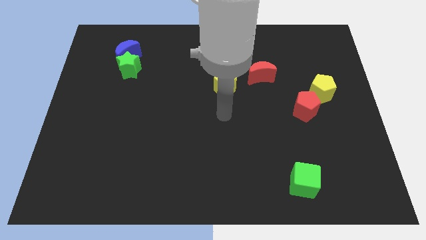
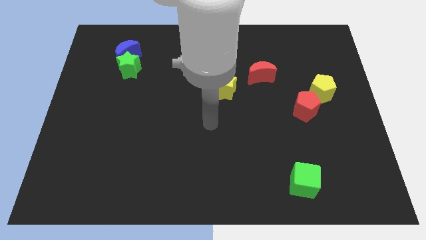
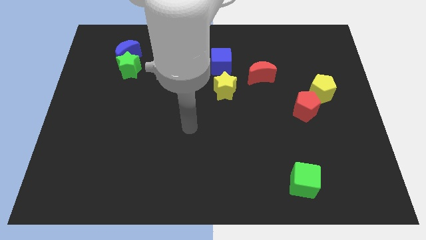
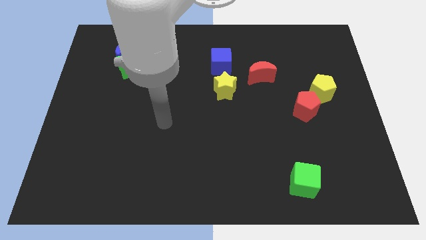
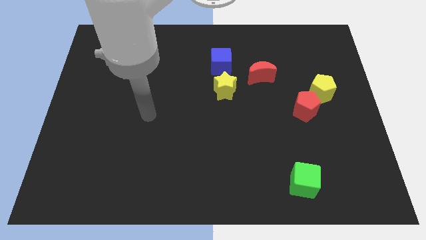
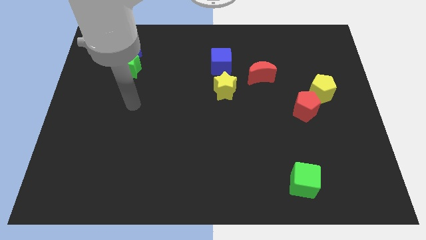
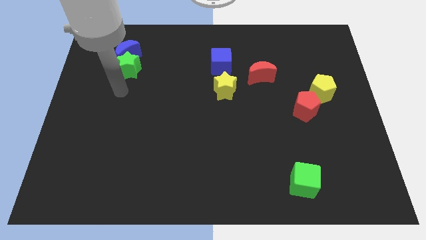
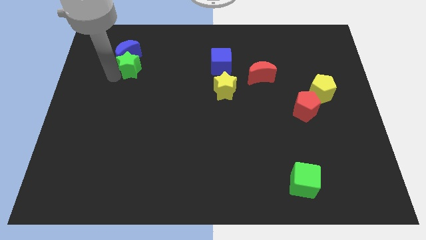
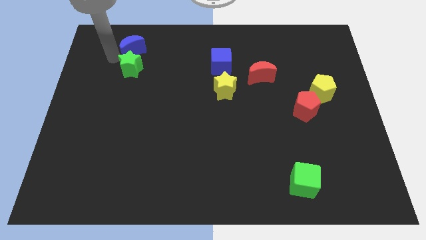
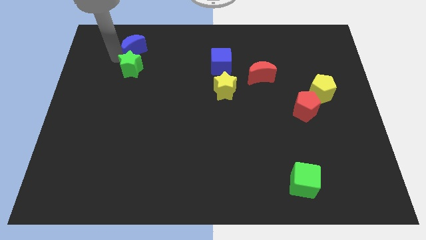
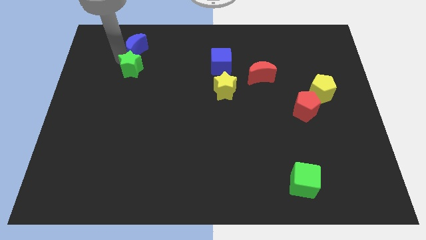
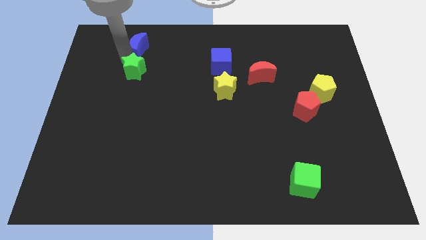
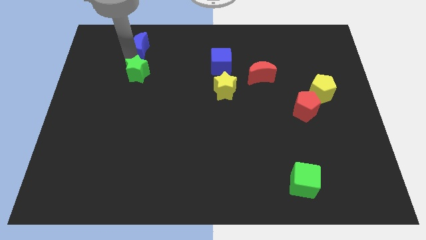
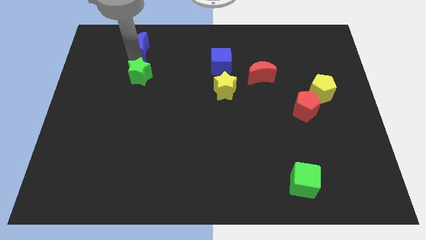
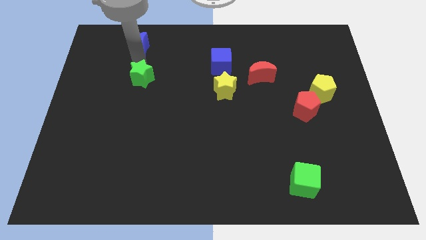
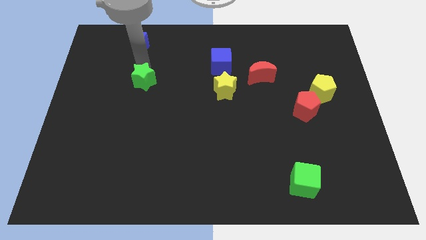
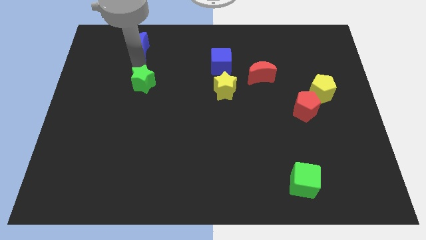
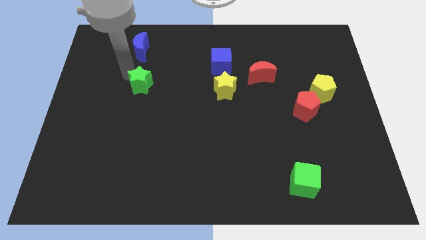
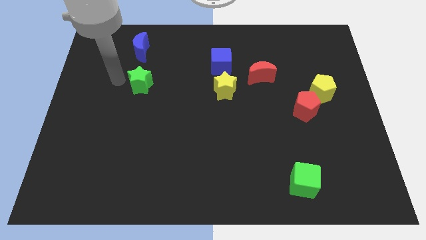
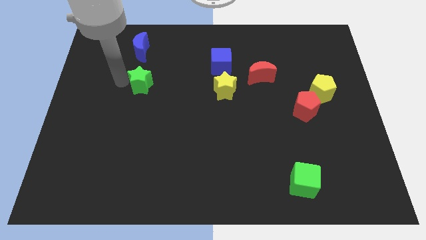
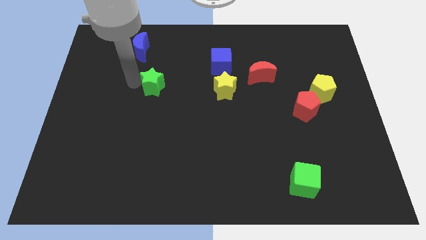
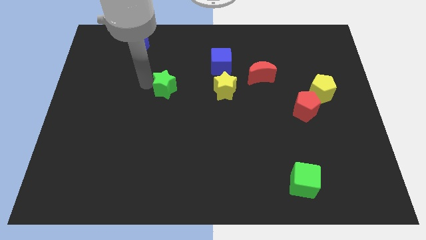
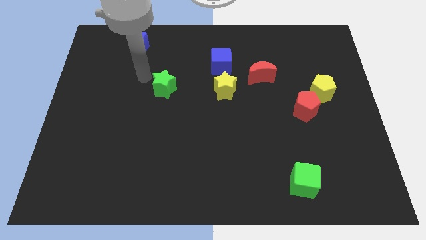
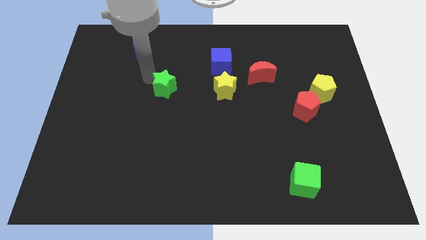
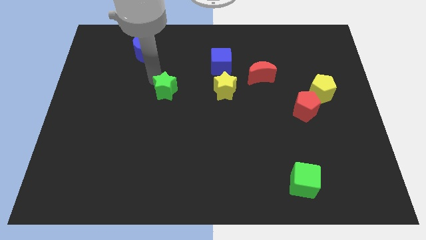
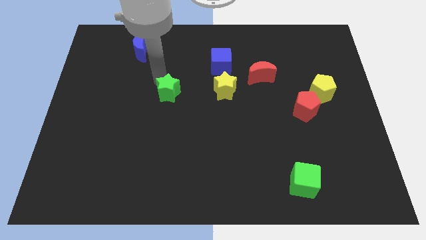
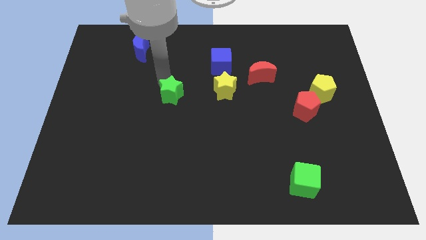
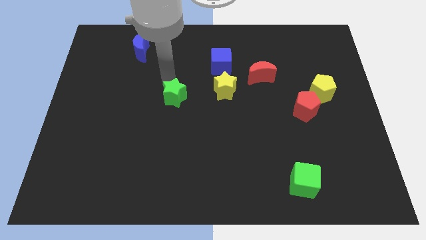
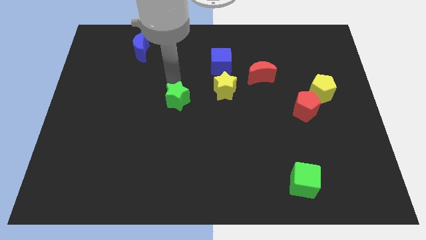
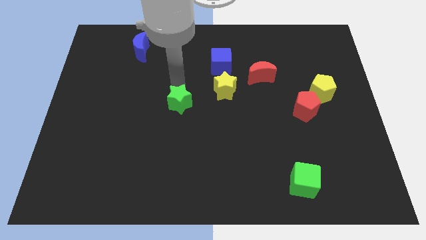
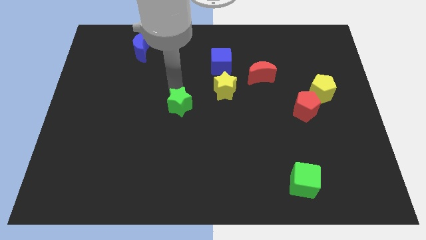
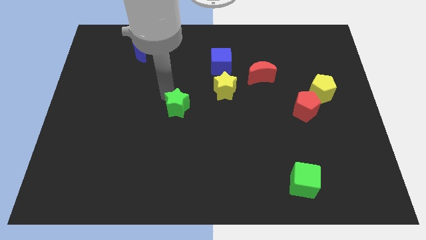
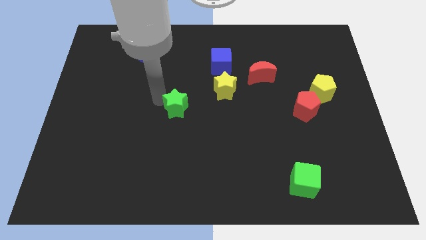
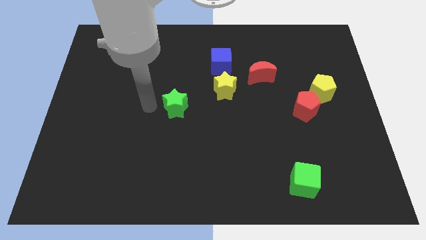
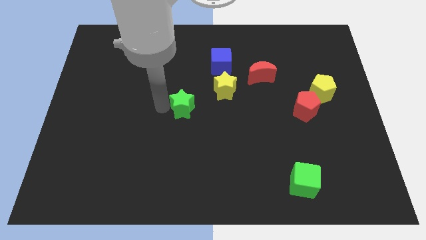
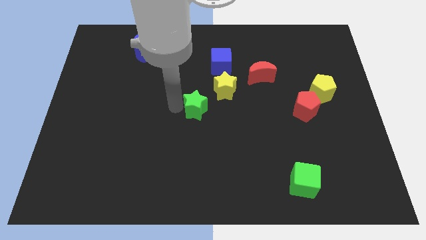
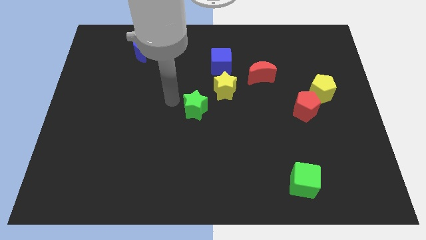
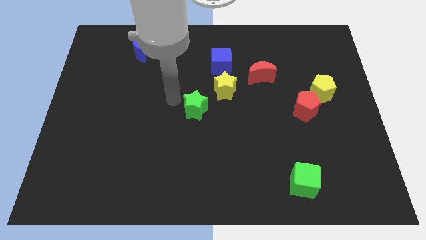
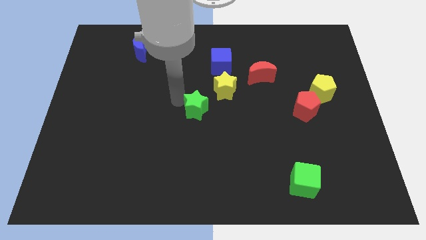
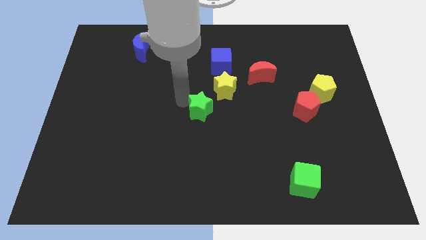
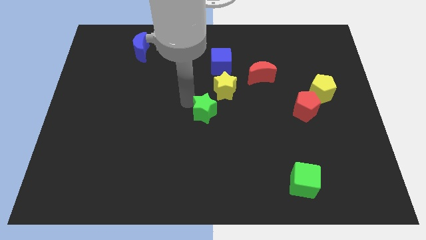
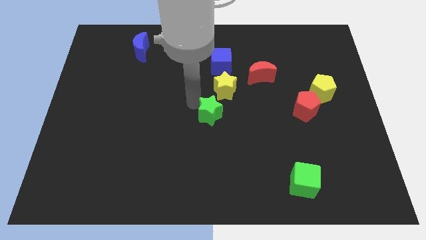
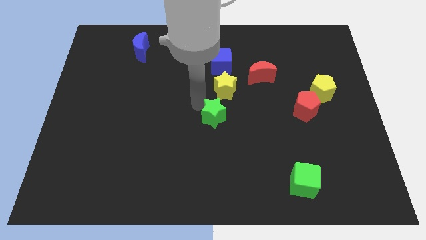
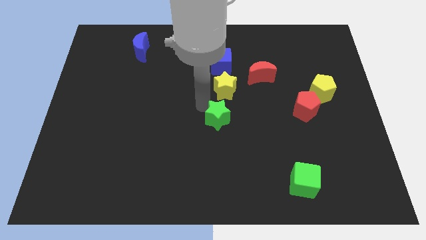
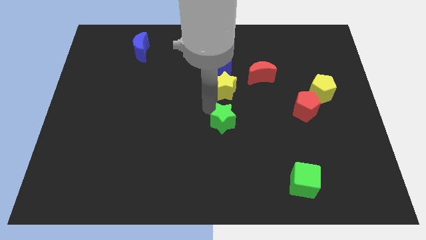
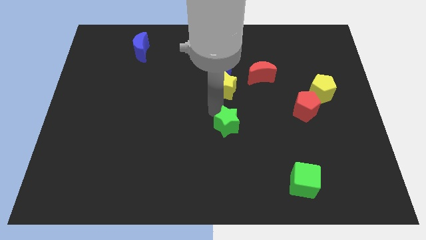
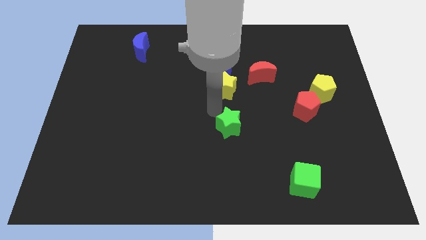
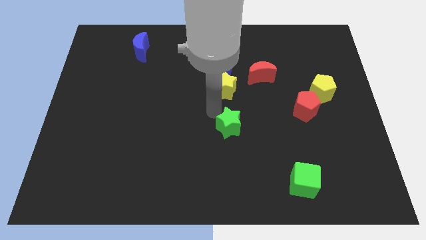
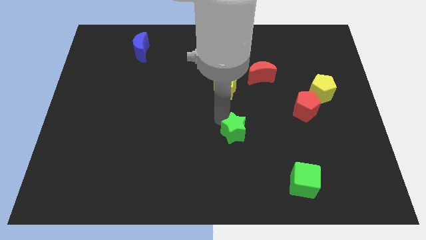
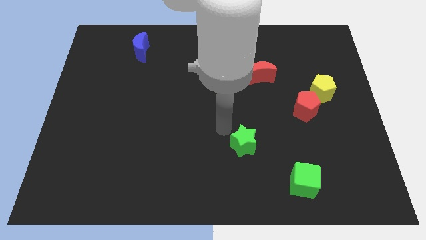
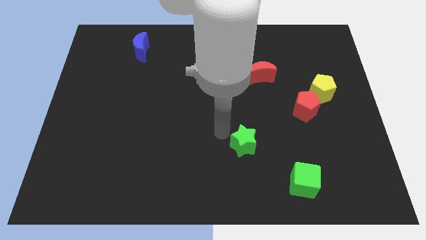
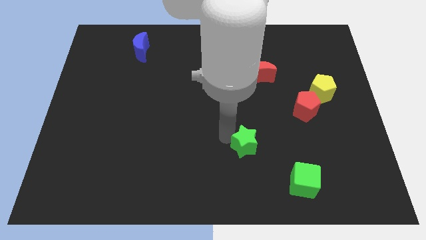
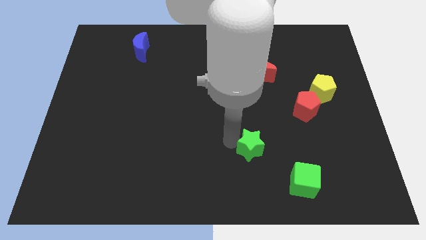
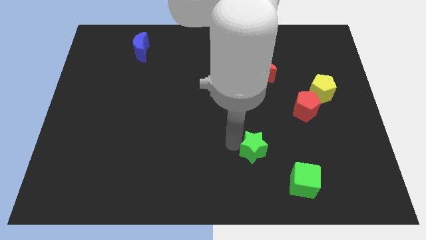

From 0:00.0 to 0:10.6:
push the green star diagonally up and to the left of the green cube

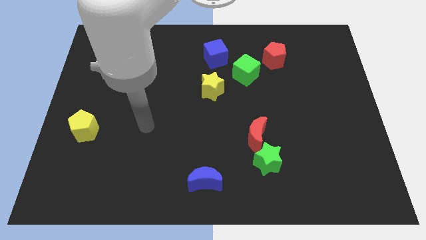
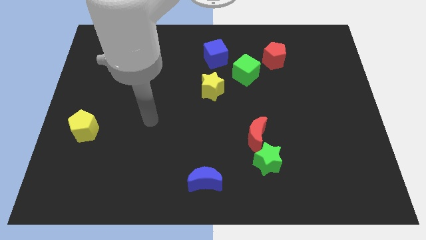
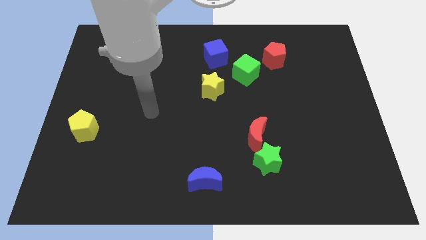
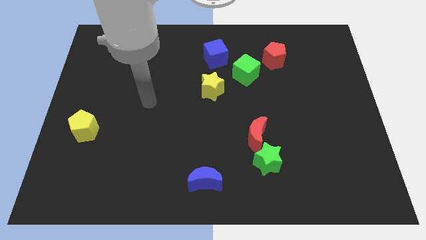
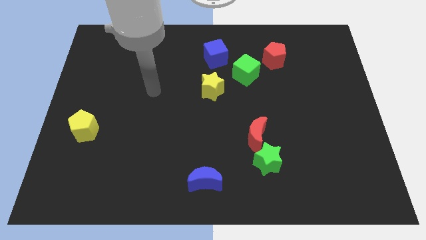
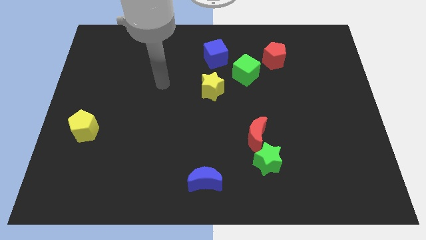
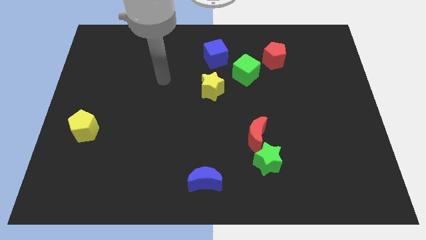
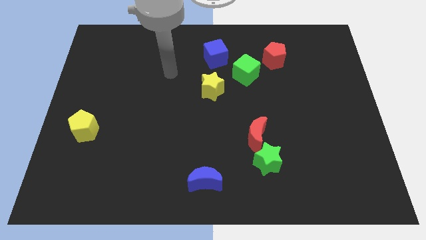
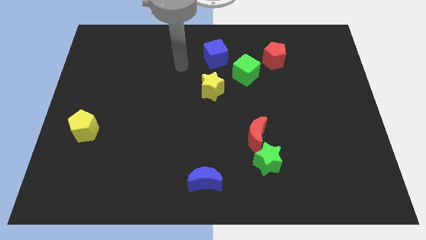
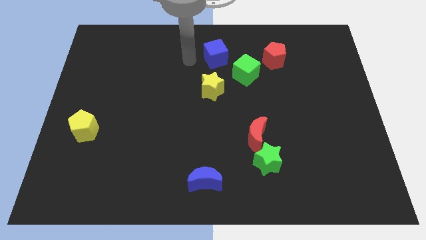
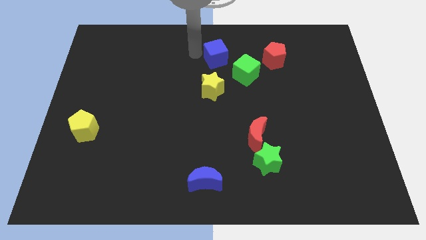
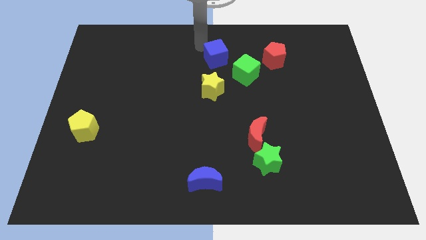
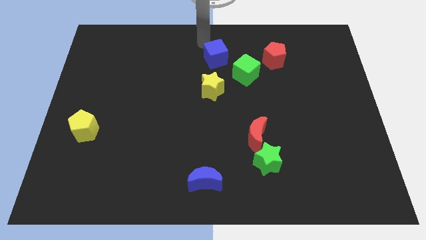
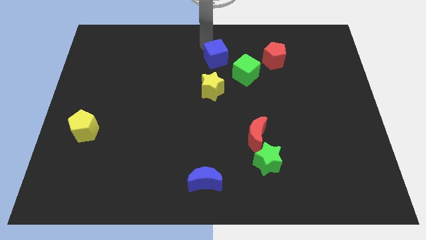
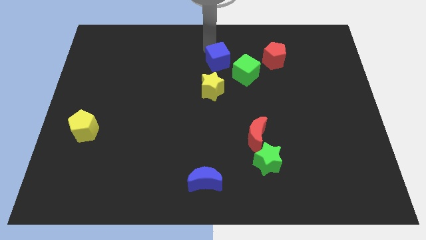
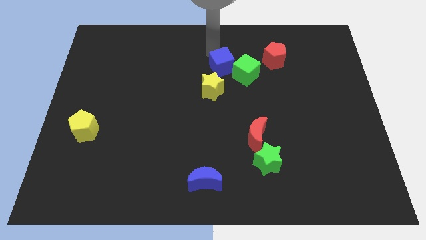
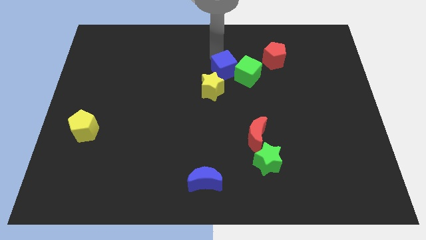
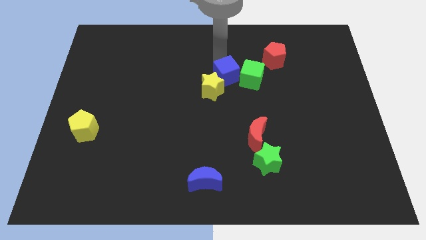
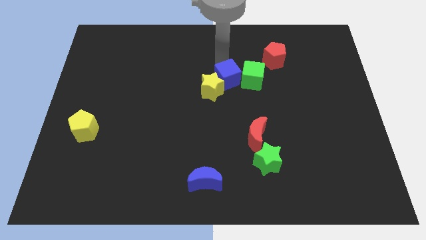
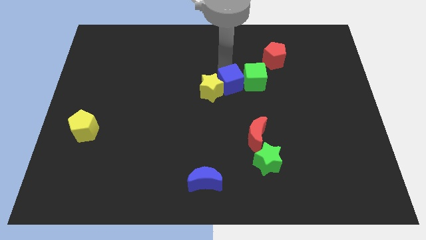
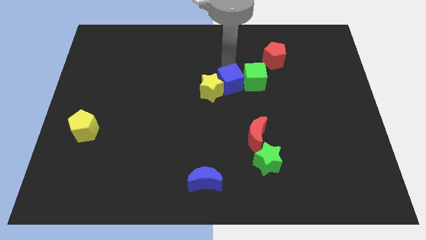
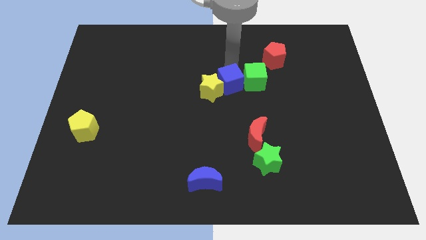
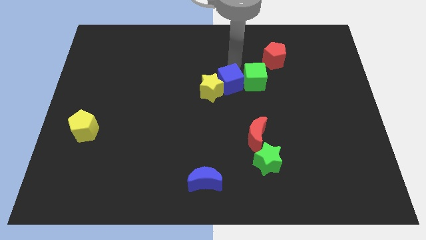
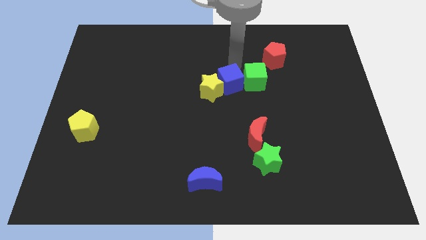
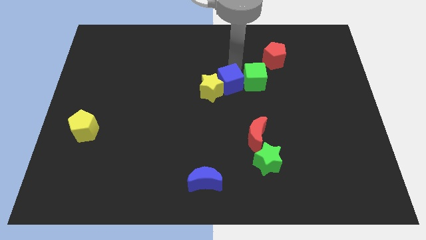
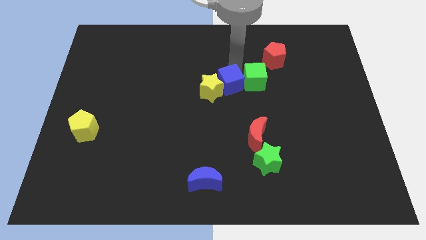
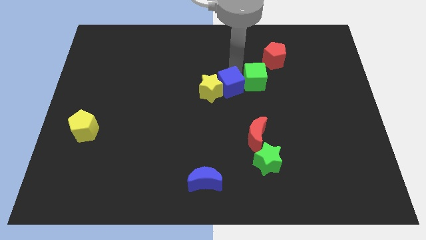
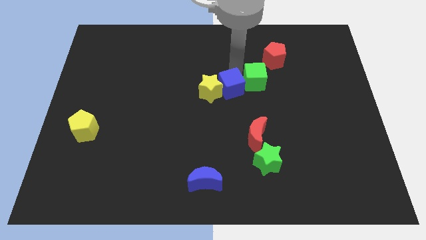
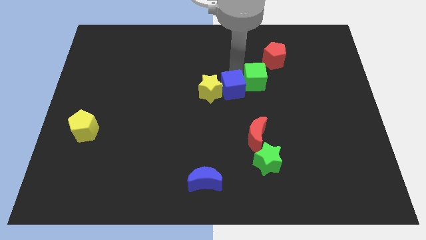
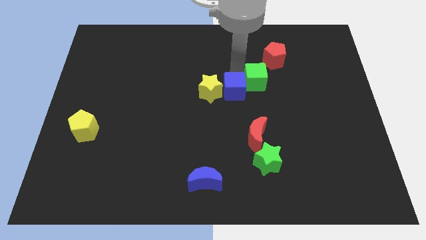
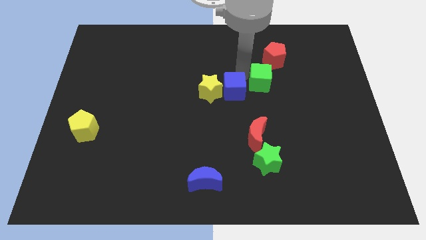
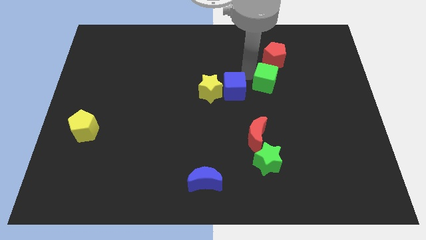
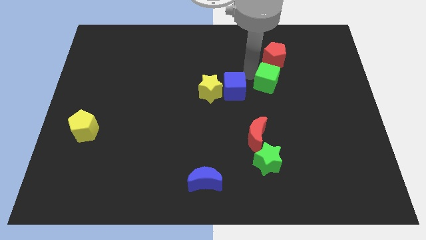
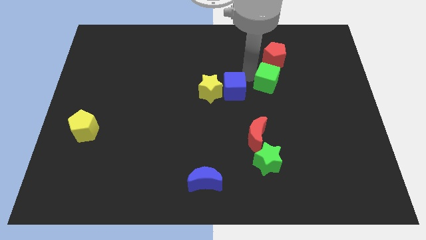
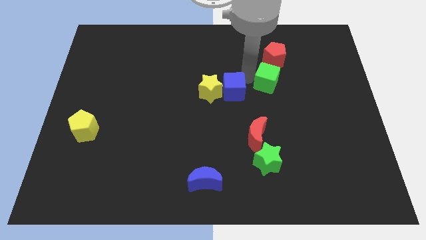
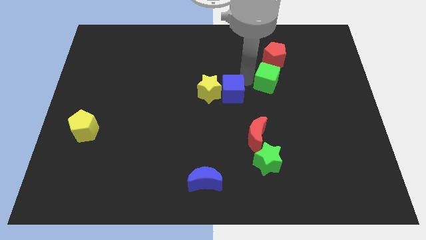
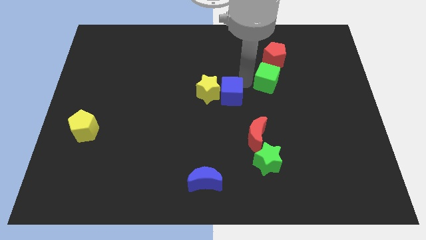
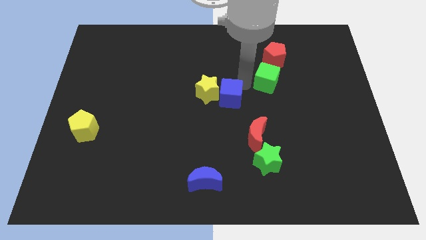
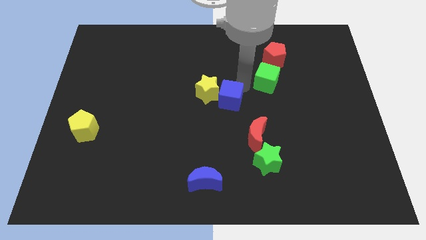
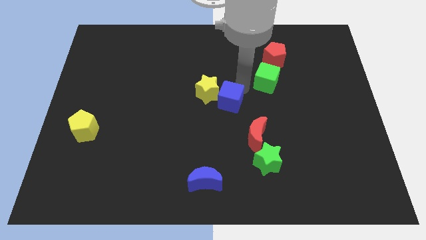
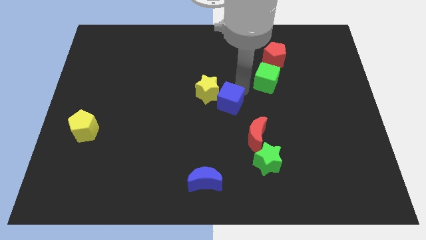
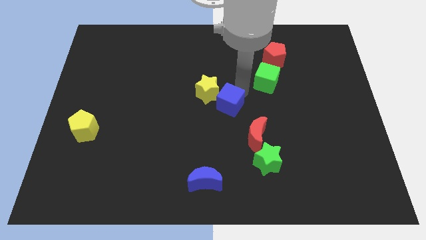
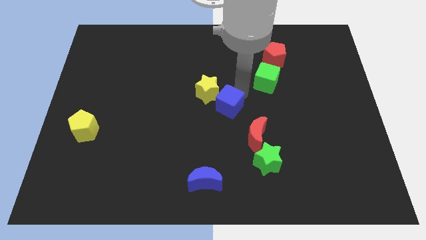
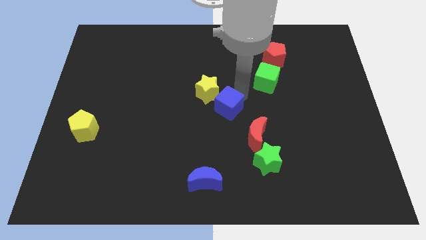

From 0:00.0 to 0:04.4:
move the blue cube below the yellow star
